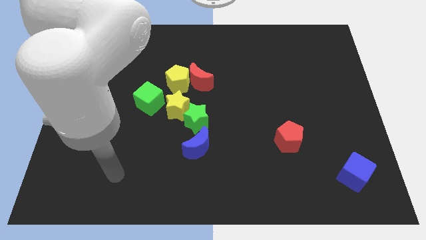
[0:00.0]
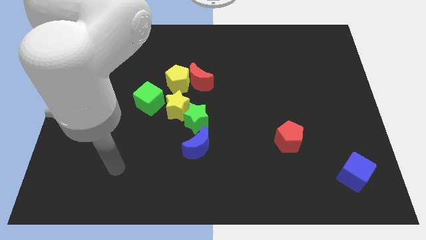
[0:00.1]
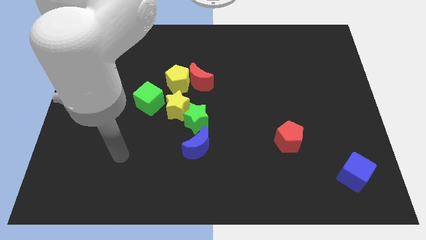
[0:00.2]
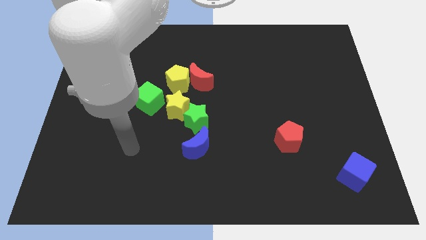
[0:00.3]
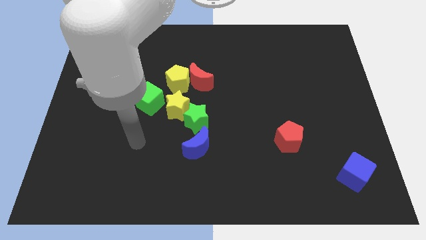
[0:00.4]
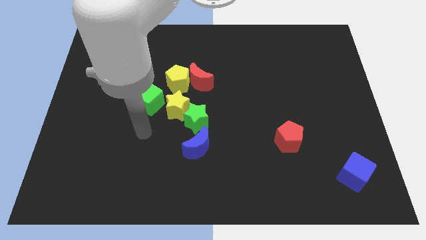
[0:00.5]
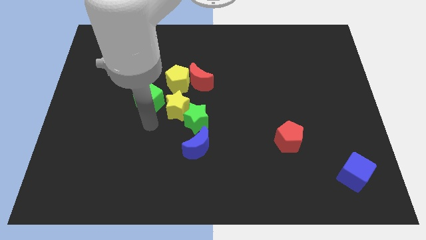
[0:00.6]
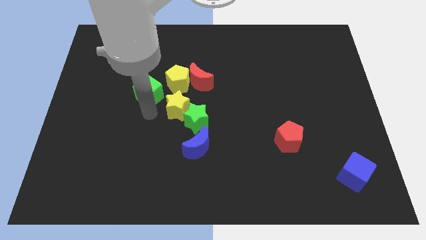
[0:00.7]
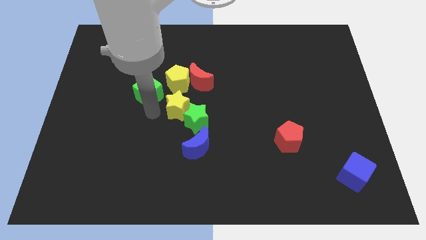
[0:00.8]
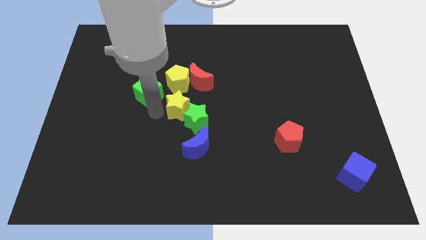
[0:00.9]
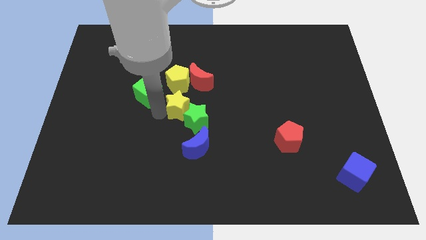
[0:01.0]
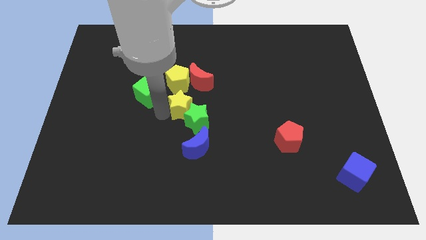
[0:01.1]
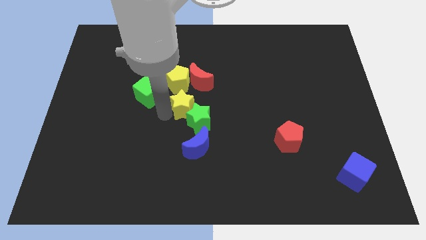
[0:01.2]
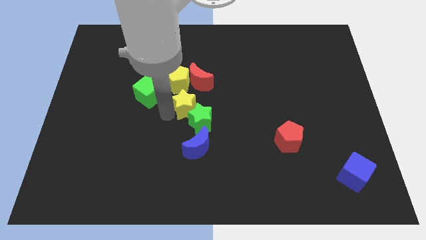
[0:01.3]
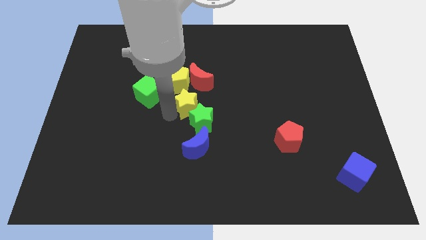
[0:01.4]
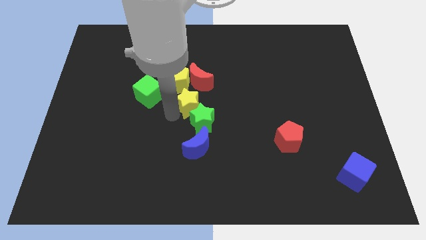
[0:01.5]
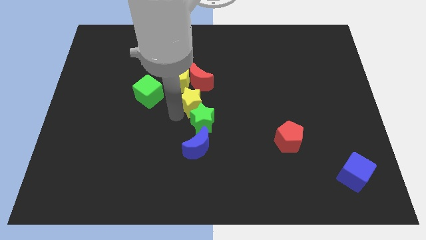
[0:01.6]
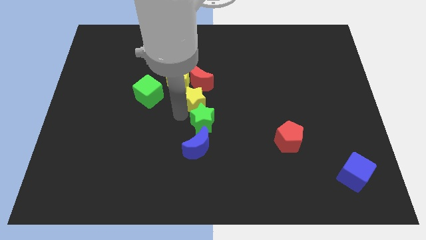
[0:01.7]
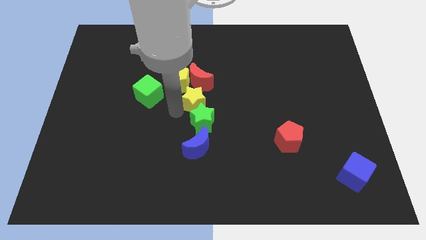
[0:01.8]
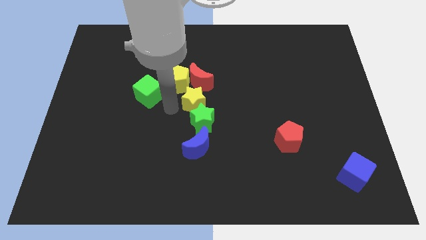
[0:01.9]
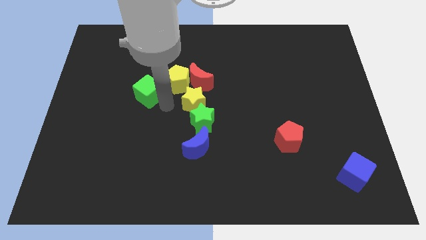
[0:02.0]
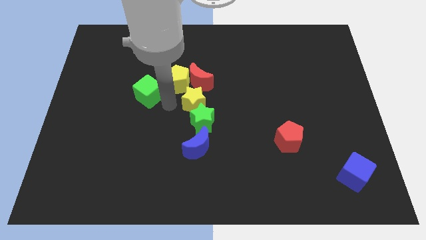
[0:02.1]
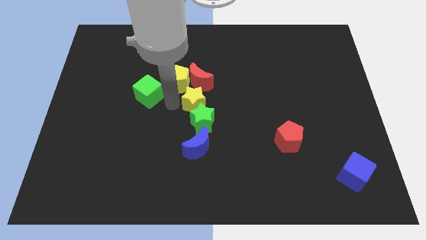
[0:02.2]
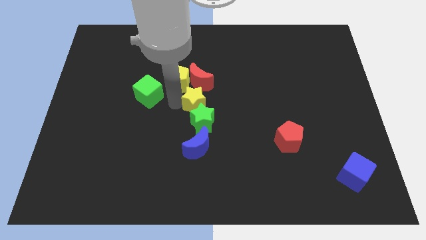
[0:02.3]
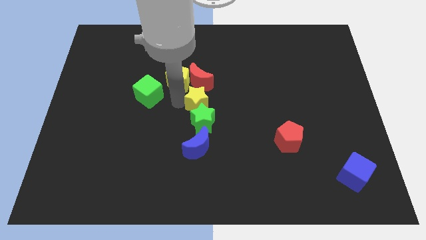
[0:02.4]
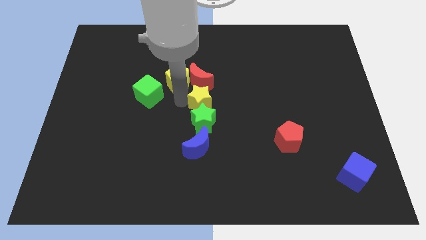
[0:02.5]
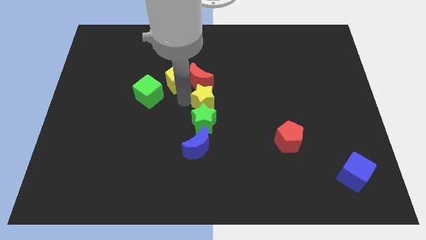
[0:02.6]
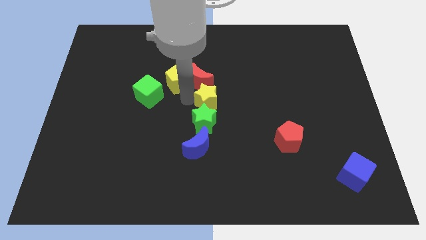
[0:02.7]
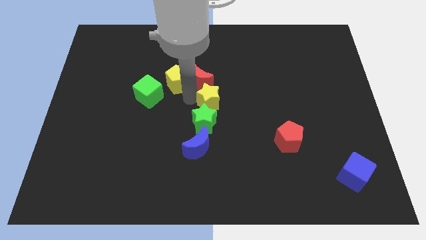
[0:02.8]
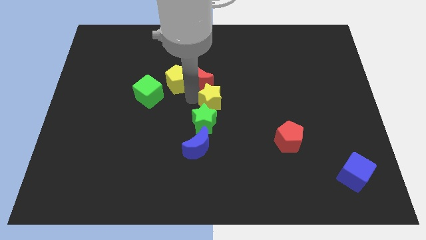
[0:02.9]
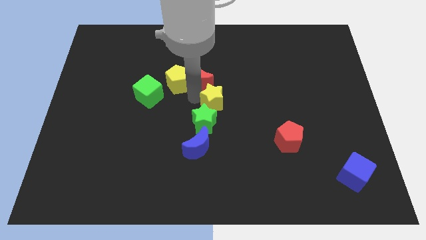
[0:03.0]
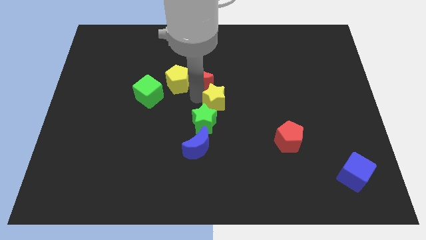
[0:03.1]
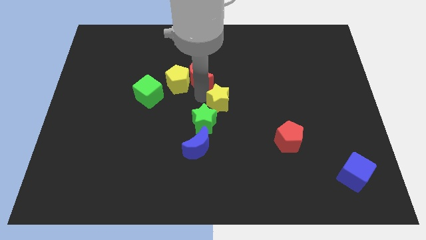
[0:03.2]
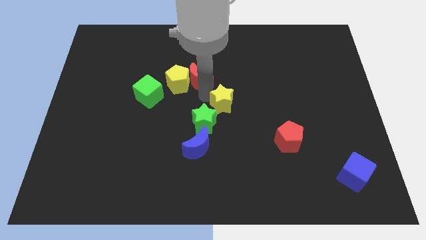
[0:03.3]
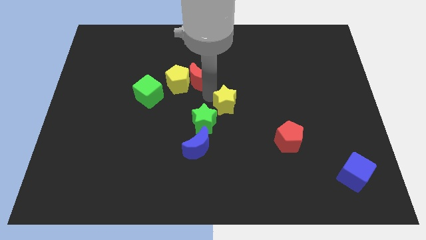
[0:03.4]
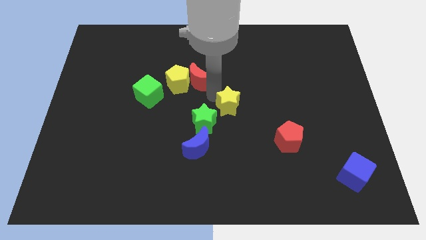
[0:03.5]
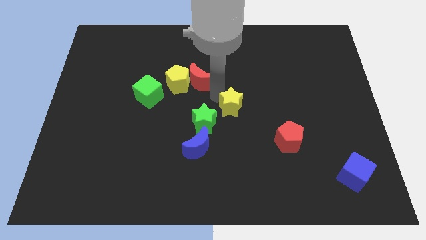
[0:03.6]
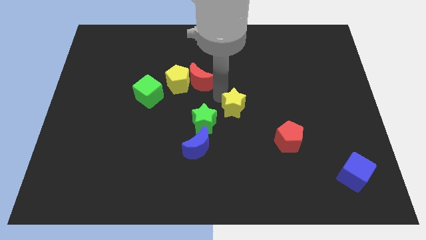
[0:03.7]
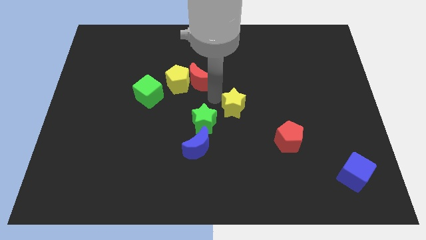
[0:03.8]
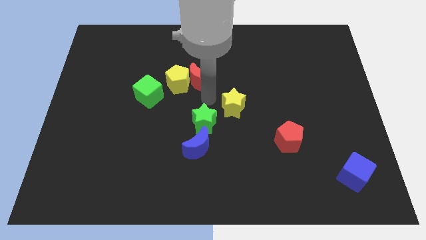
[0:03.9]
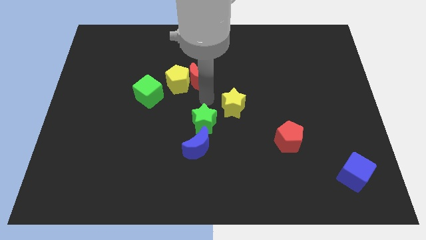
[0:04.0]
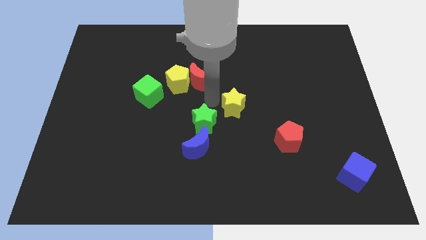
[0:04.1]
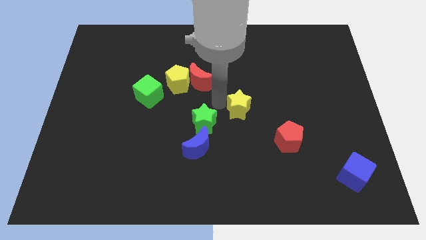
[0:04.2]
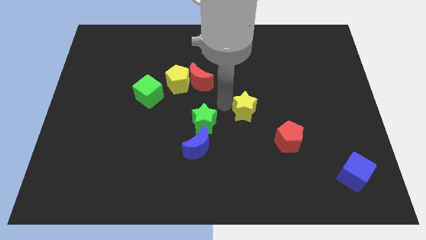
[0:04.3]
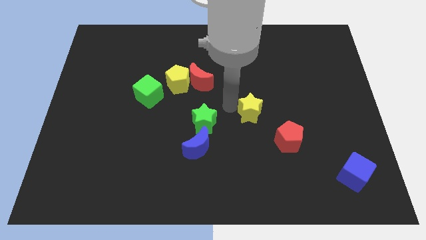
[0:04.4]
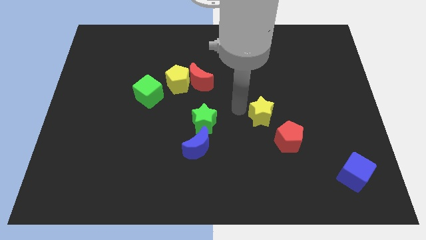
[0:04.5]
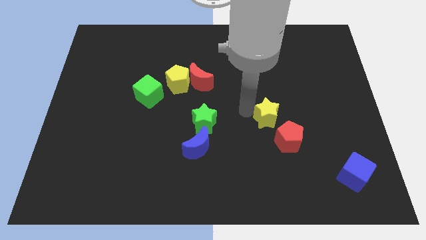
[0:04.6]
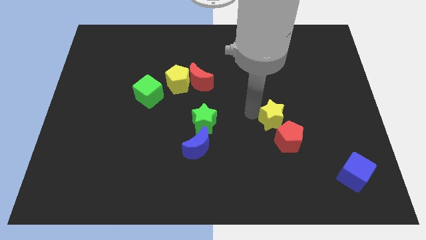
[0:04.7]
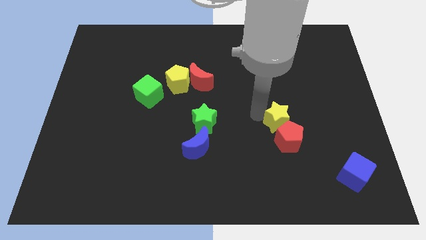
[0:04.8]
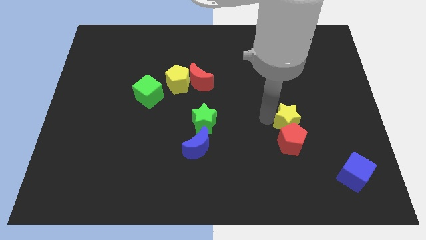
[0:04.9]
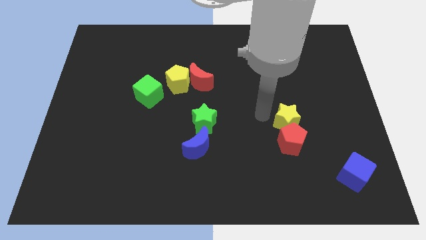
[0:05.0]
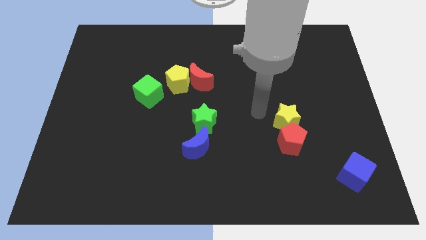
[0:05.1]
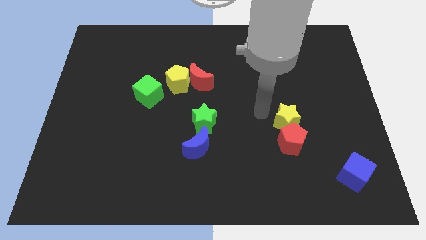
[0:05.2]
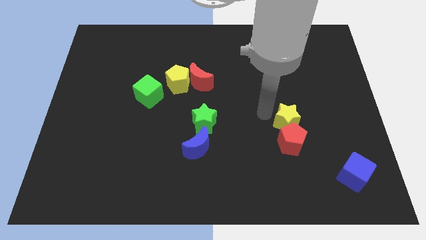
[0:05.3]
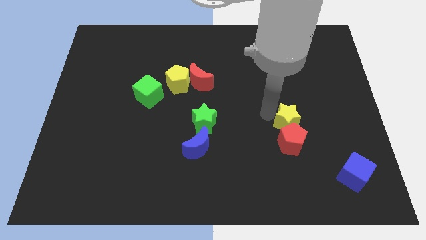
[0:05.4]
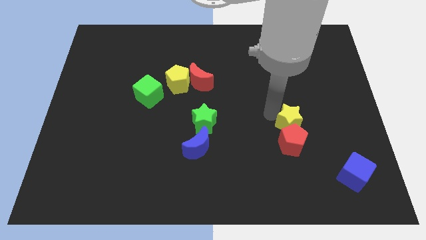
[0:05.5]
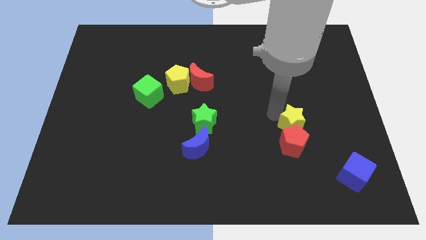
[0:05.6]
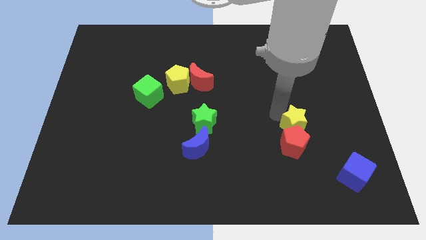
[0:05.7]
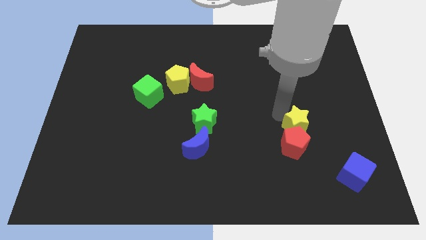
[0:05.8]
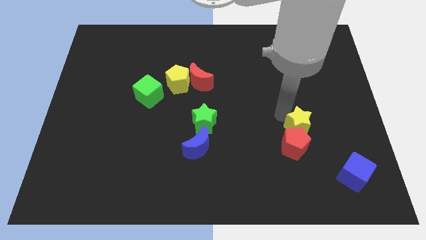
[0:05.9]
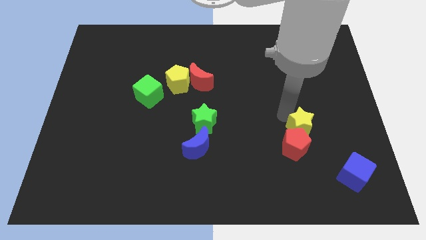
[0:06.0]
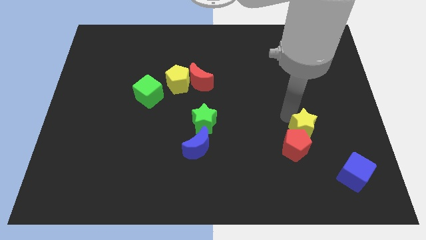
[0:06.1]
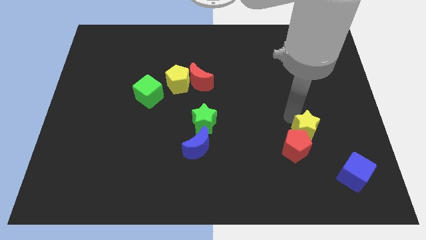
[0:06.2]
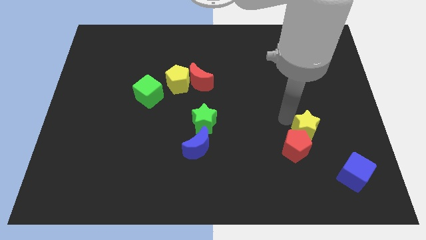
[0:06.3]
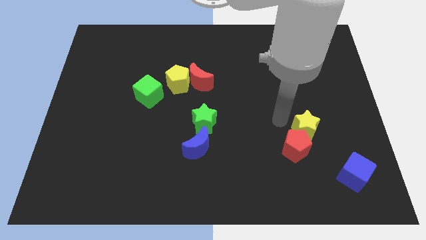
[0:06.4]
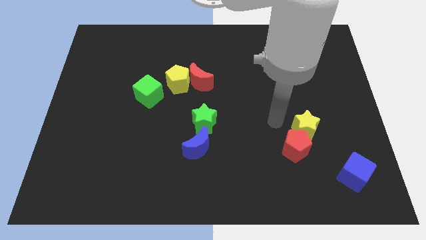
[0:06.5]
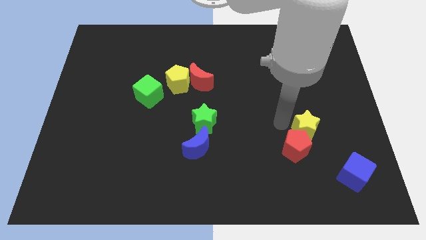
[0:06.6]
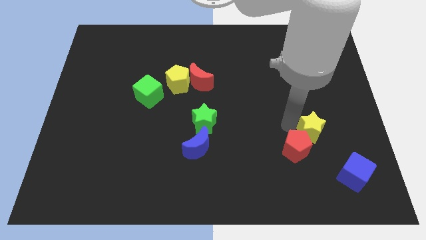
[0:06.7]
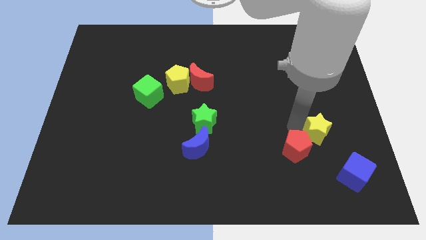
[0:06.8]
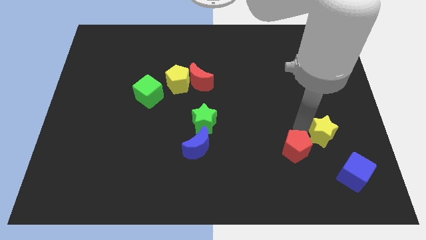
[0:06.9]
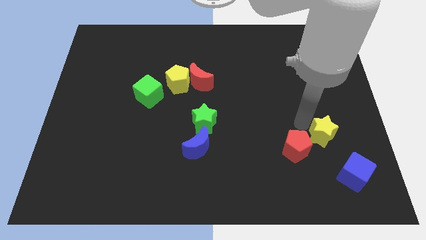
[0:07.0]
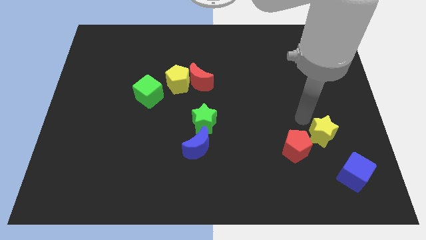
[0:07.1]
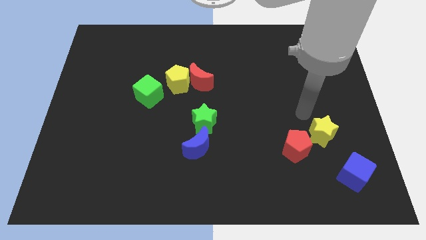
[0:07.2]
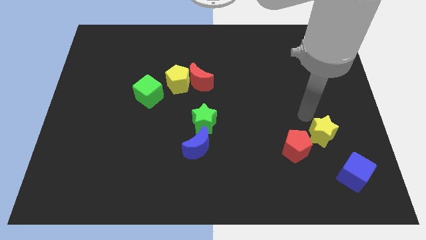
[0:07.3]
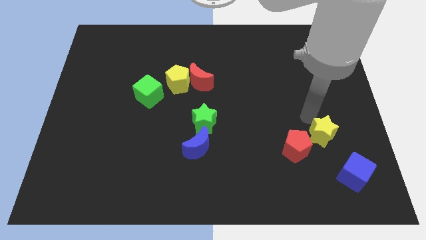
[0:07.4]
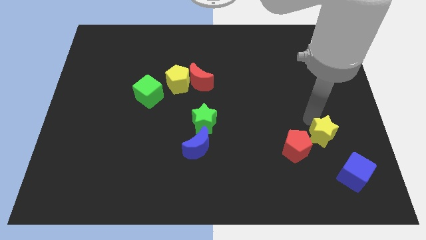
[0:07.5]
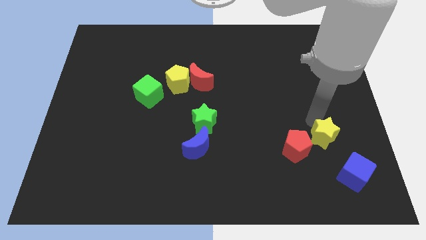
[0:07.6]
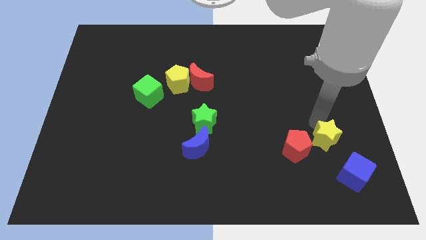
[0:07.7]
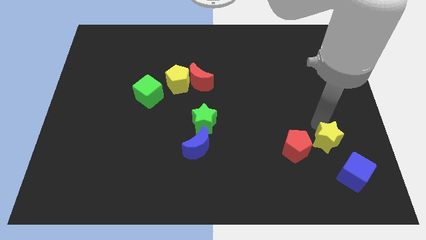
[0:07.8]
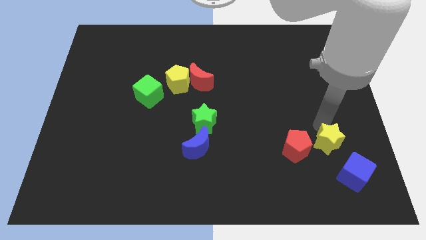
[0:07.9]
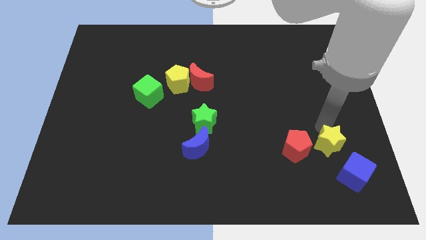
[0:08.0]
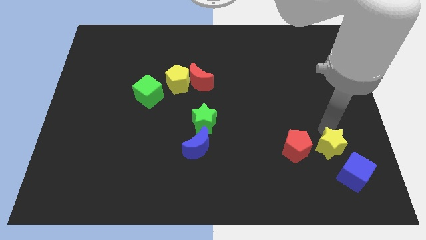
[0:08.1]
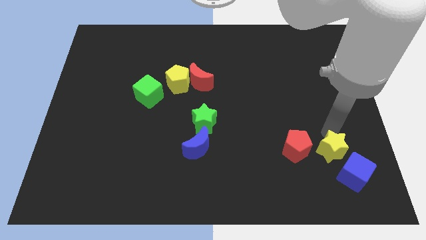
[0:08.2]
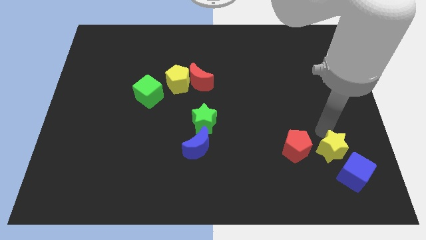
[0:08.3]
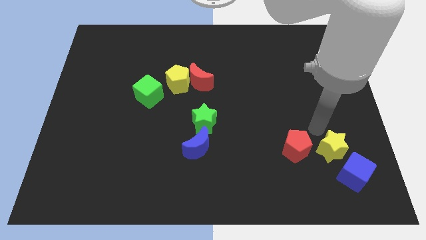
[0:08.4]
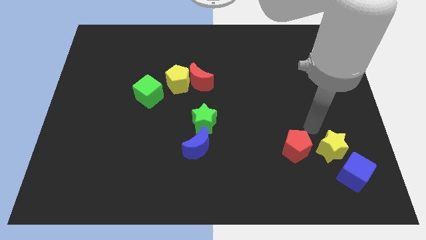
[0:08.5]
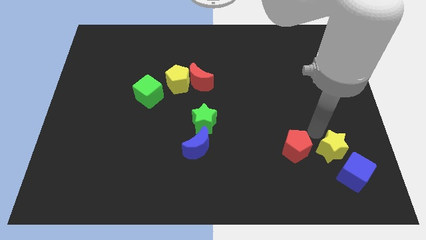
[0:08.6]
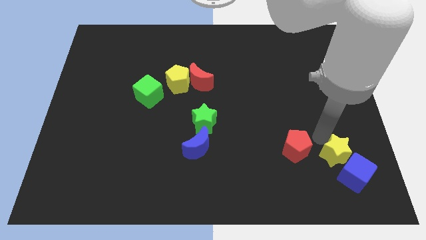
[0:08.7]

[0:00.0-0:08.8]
push the yellow star to the blue cube
